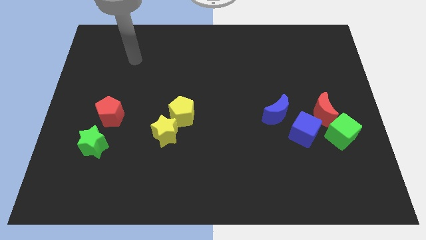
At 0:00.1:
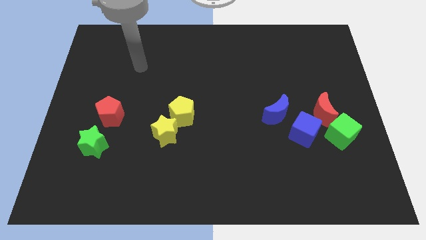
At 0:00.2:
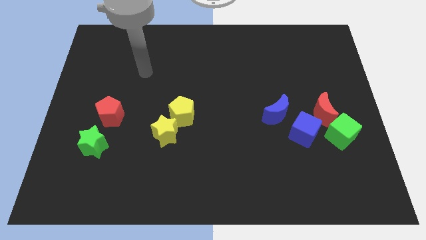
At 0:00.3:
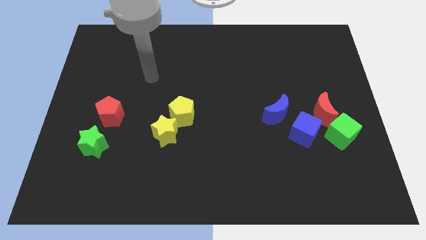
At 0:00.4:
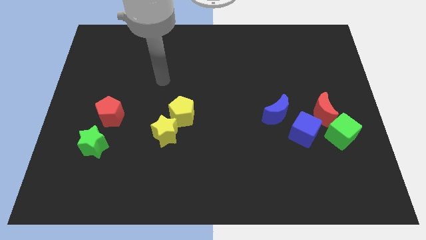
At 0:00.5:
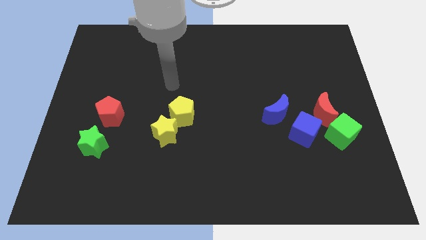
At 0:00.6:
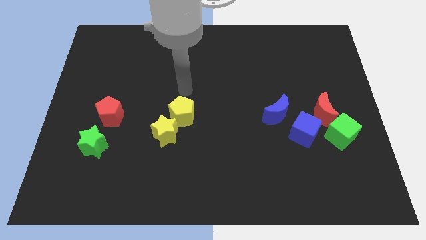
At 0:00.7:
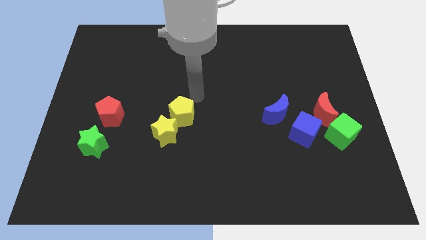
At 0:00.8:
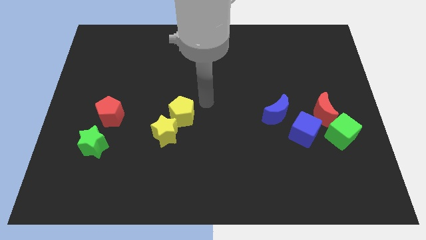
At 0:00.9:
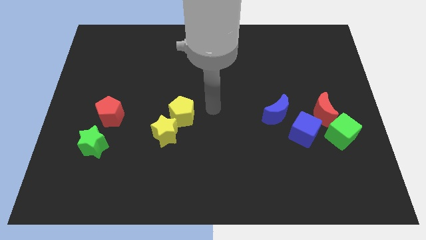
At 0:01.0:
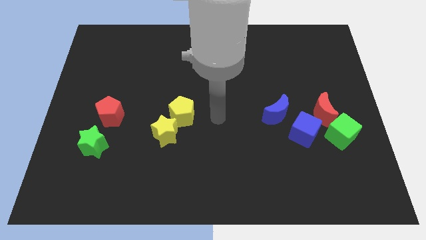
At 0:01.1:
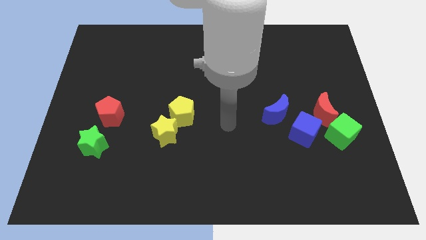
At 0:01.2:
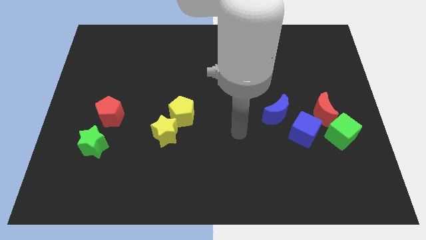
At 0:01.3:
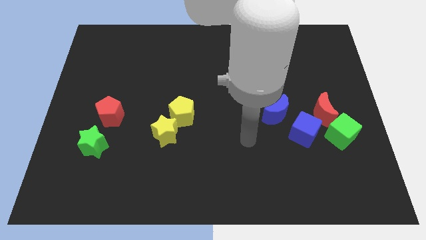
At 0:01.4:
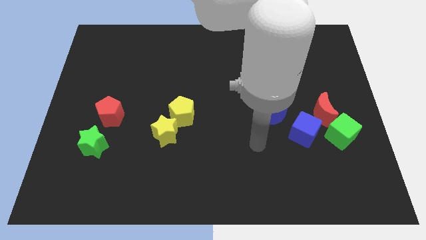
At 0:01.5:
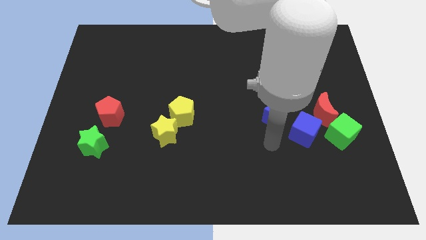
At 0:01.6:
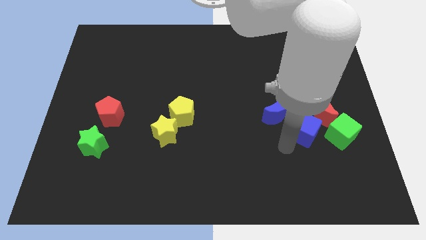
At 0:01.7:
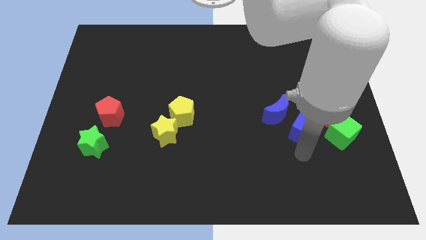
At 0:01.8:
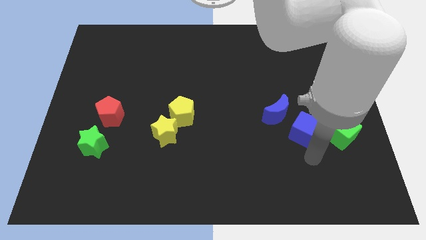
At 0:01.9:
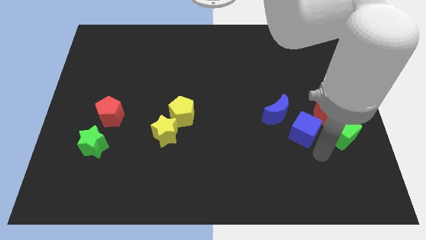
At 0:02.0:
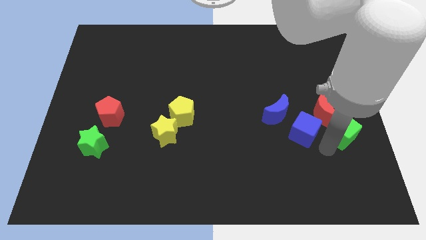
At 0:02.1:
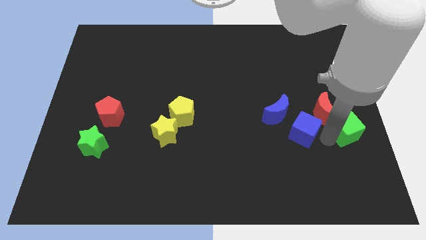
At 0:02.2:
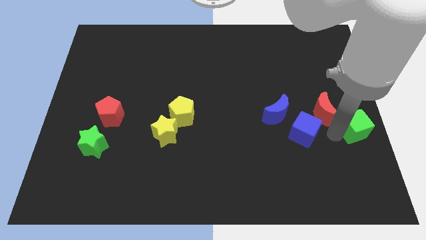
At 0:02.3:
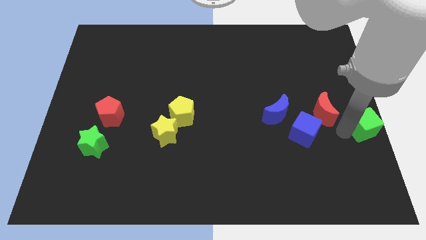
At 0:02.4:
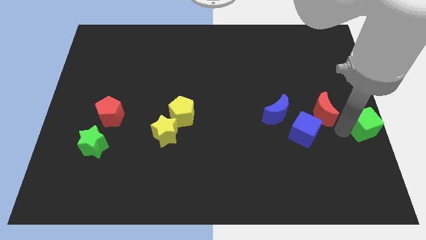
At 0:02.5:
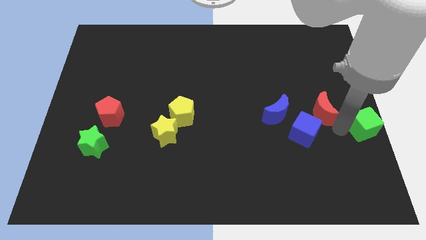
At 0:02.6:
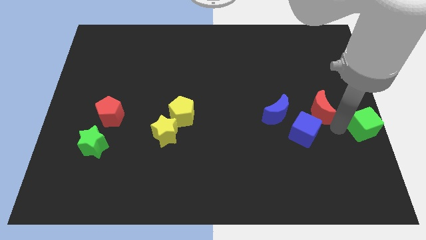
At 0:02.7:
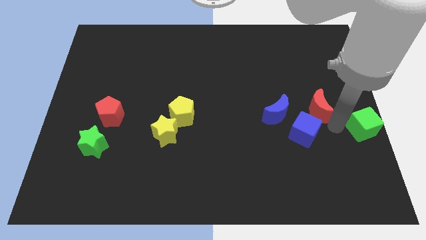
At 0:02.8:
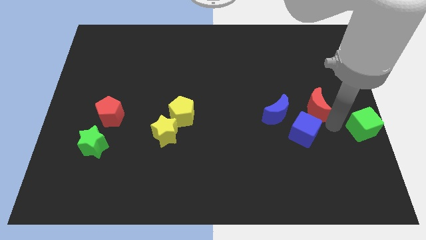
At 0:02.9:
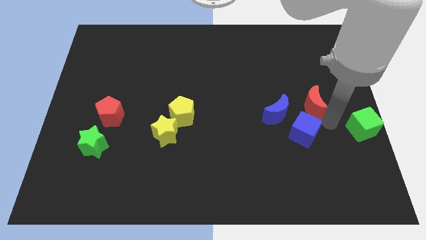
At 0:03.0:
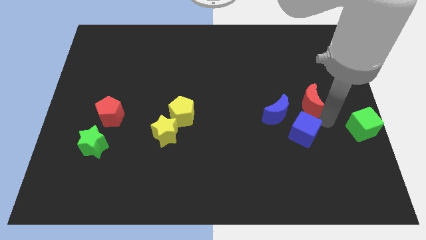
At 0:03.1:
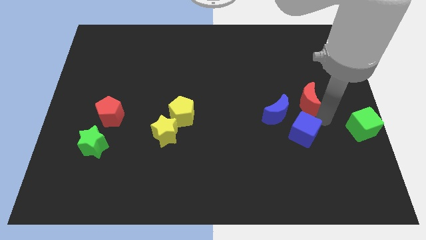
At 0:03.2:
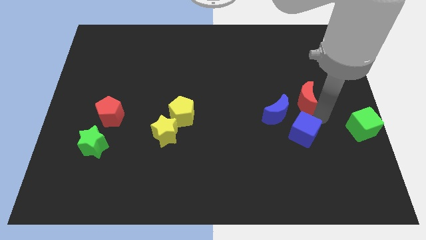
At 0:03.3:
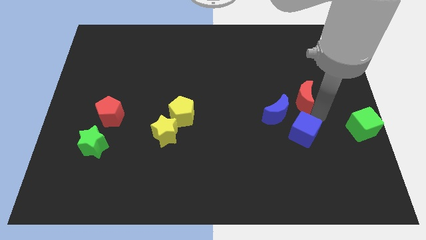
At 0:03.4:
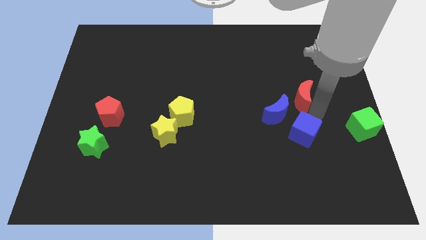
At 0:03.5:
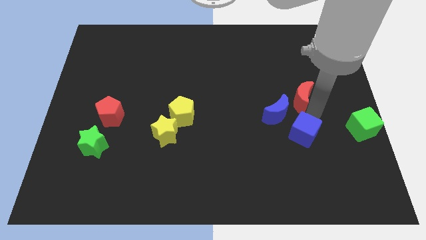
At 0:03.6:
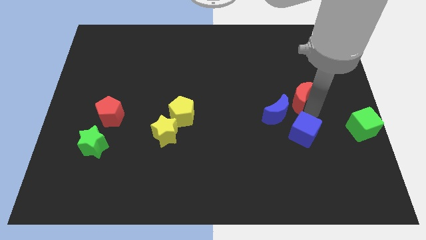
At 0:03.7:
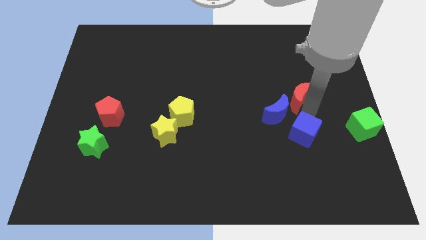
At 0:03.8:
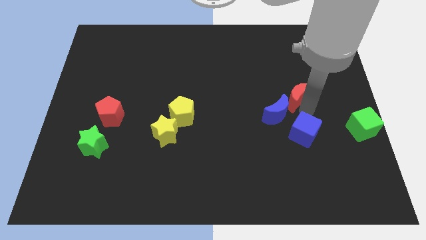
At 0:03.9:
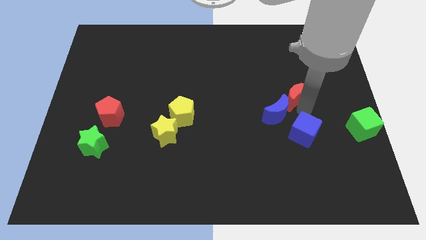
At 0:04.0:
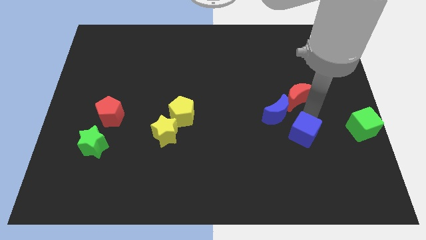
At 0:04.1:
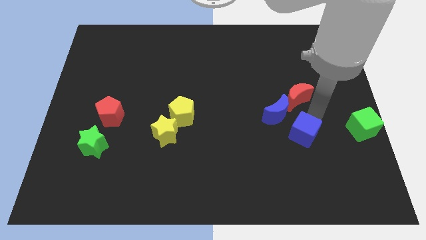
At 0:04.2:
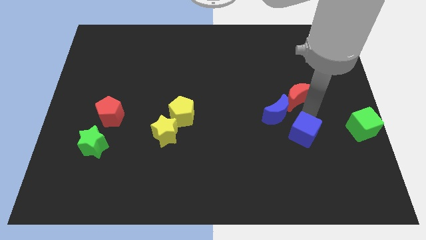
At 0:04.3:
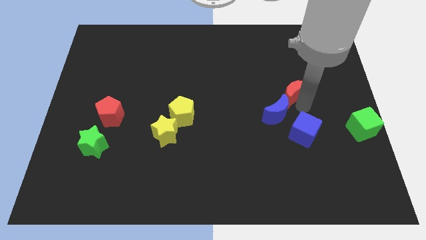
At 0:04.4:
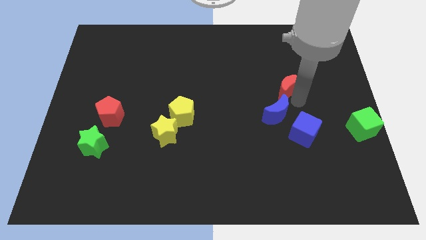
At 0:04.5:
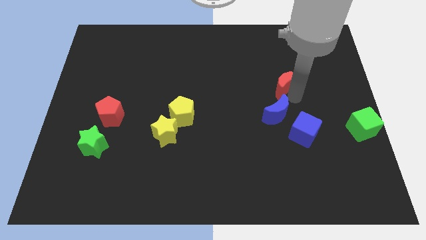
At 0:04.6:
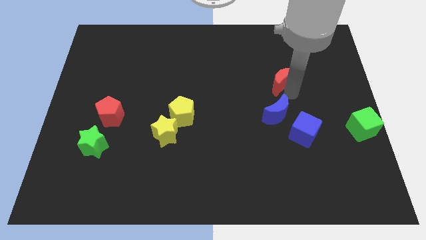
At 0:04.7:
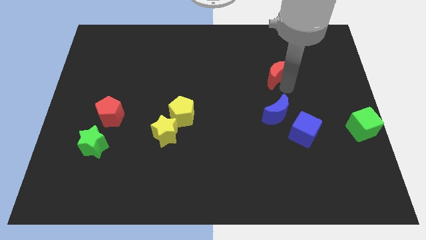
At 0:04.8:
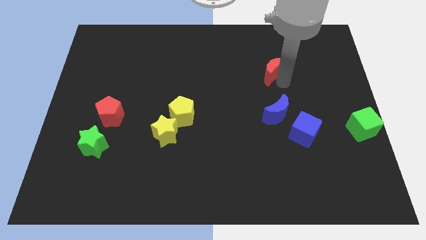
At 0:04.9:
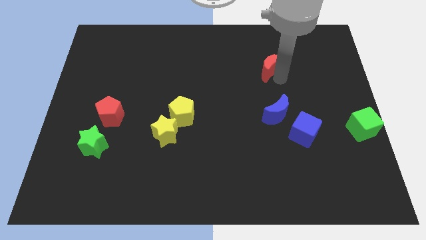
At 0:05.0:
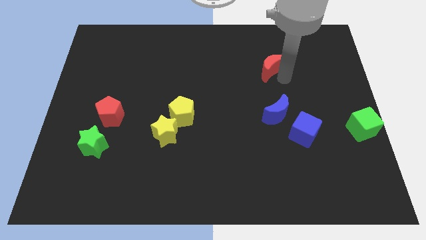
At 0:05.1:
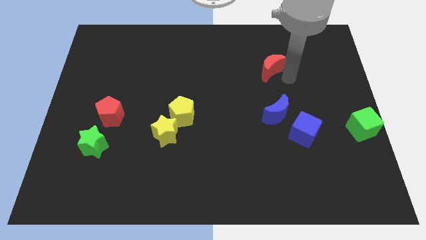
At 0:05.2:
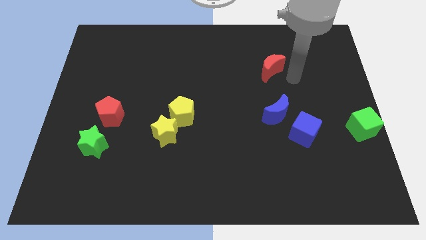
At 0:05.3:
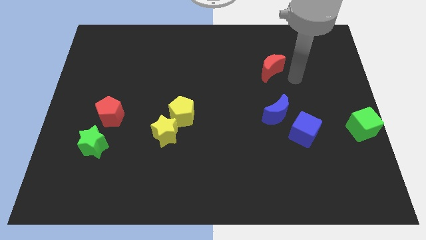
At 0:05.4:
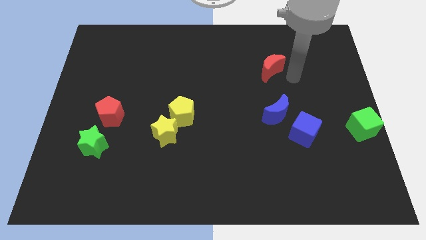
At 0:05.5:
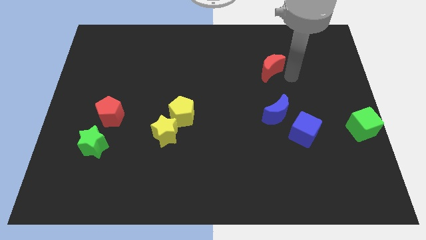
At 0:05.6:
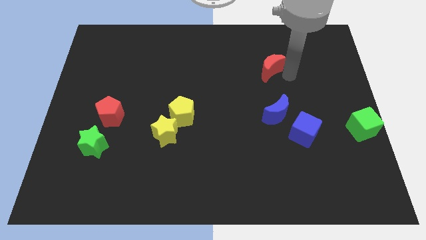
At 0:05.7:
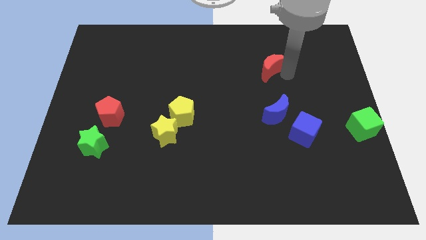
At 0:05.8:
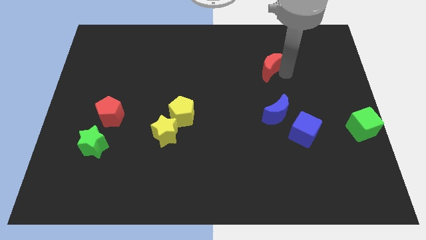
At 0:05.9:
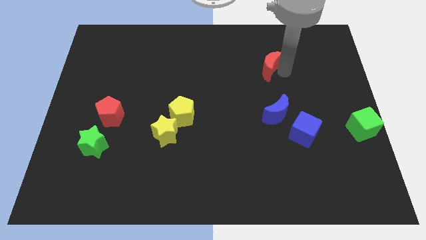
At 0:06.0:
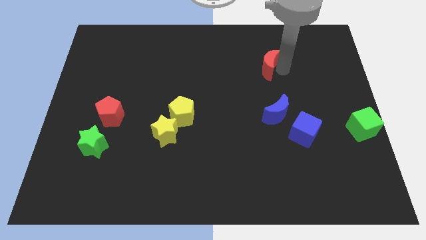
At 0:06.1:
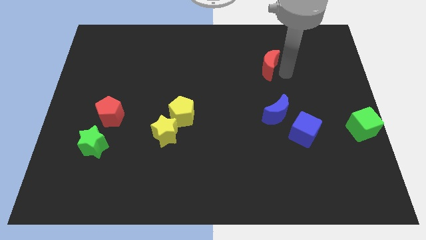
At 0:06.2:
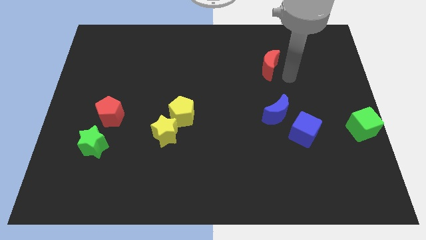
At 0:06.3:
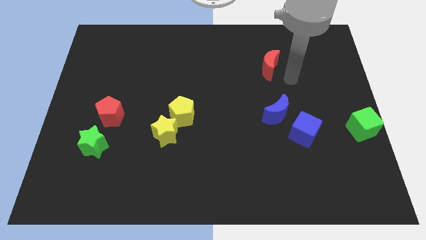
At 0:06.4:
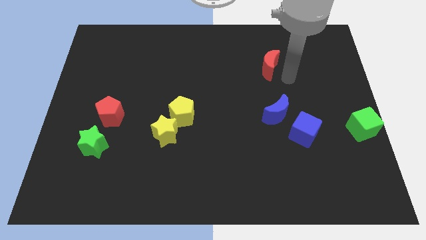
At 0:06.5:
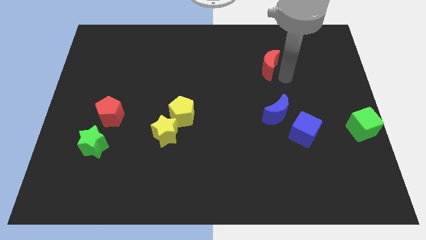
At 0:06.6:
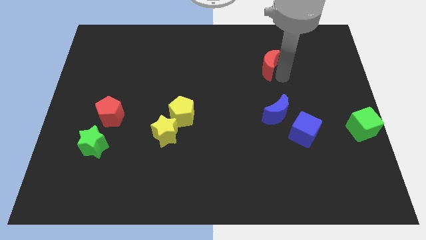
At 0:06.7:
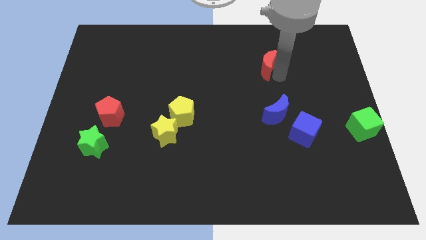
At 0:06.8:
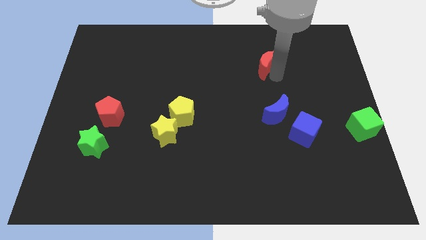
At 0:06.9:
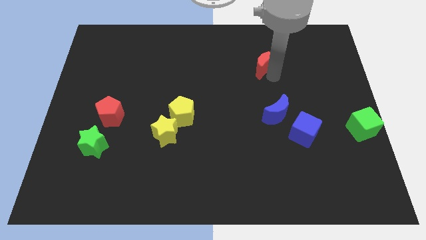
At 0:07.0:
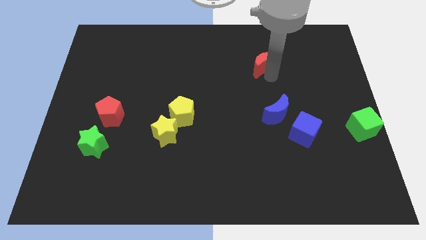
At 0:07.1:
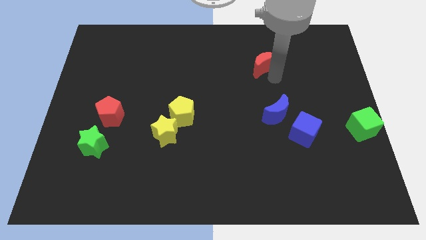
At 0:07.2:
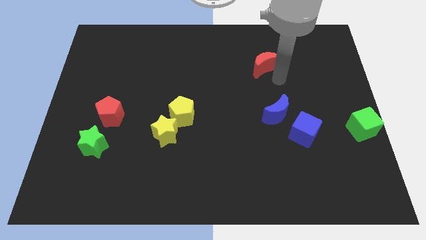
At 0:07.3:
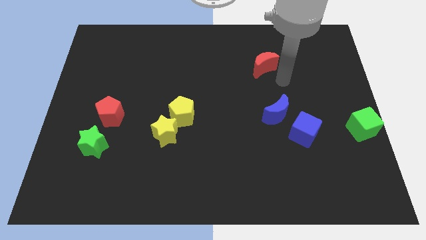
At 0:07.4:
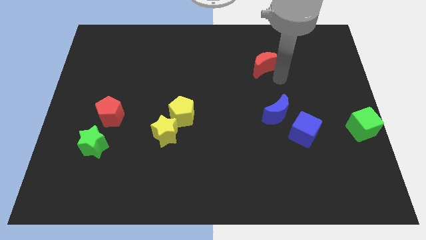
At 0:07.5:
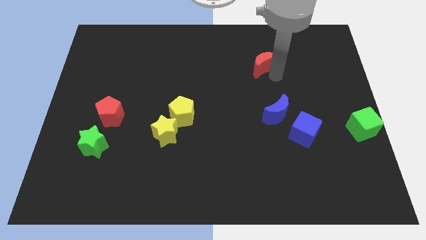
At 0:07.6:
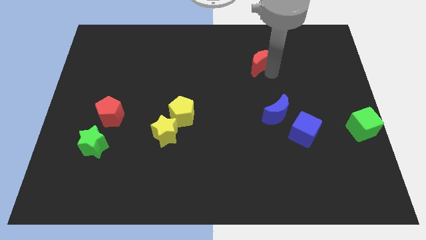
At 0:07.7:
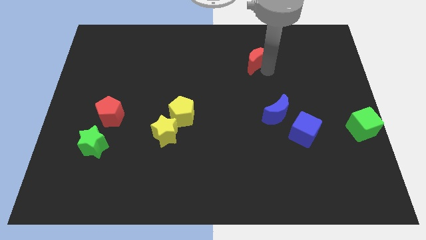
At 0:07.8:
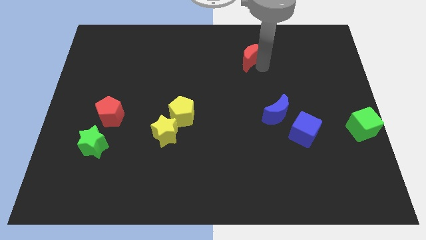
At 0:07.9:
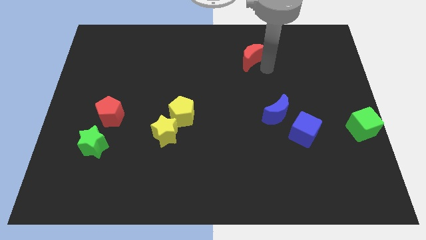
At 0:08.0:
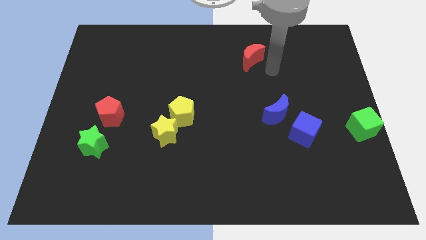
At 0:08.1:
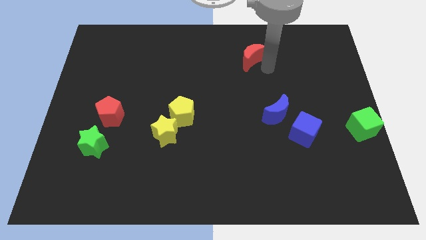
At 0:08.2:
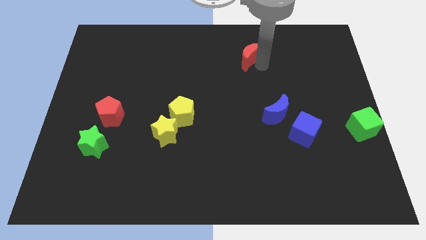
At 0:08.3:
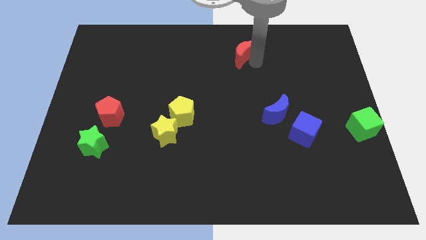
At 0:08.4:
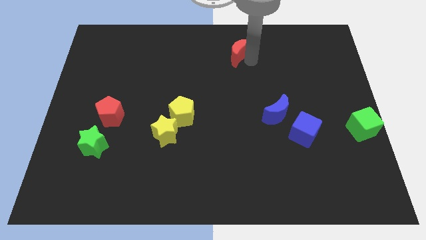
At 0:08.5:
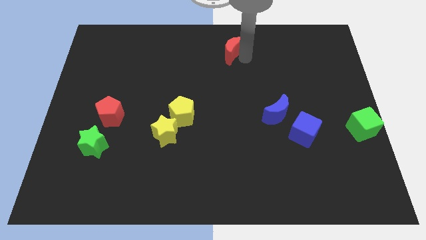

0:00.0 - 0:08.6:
put the red moon to the top side
